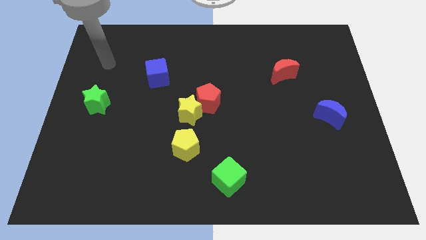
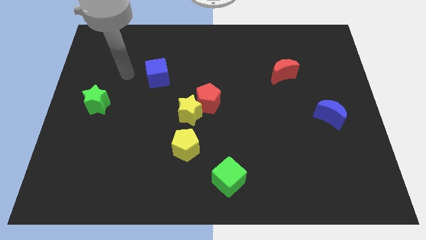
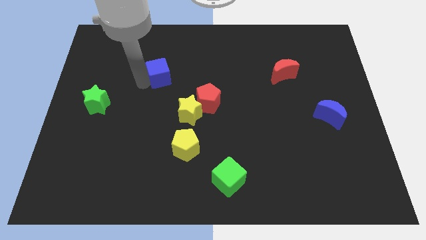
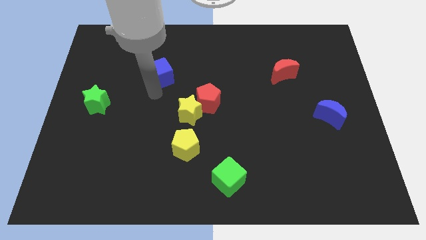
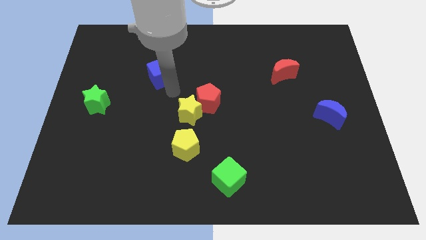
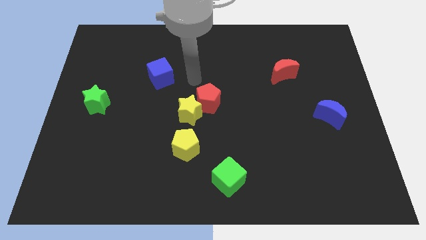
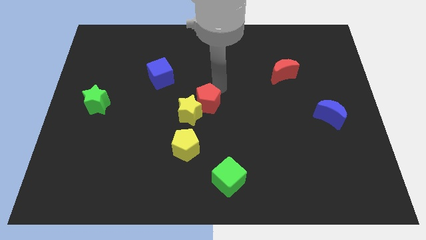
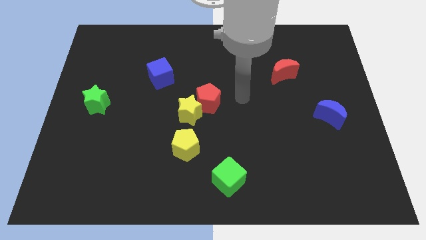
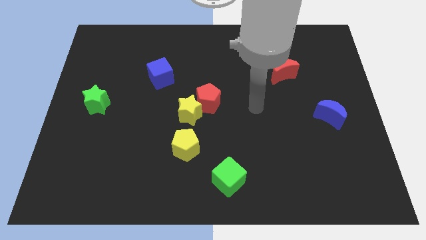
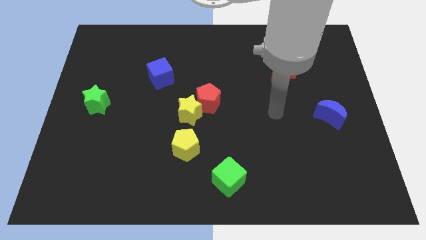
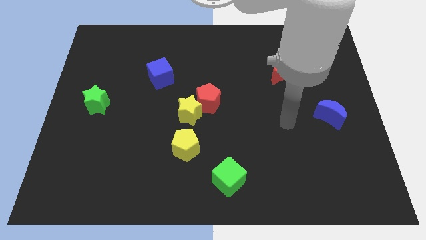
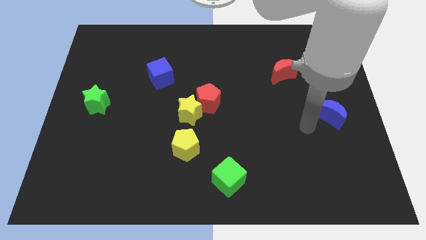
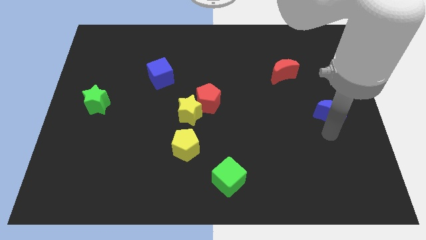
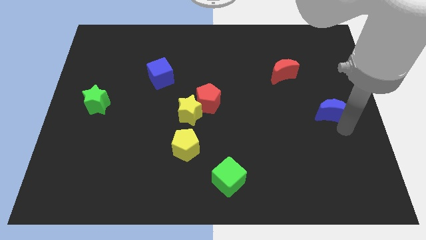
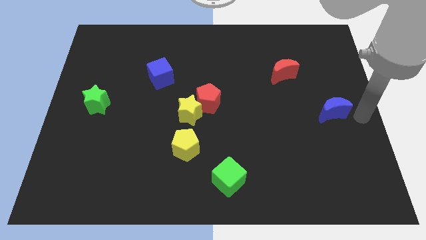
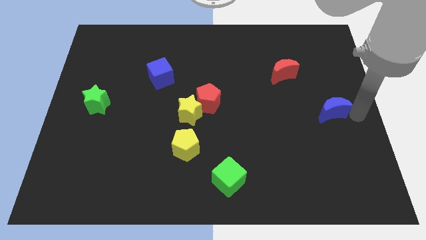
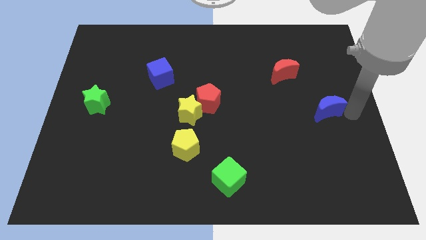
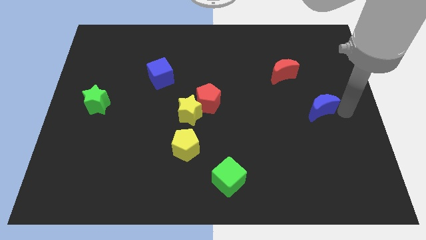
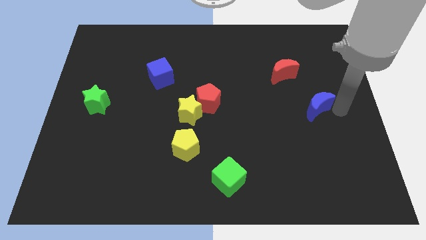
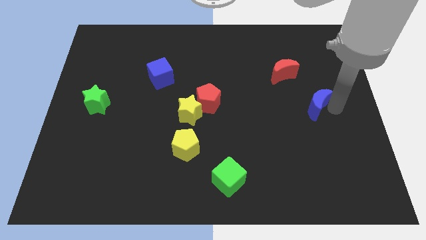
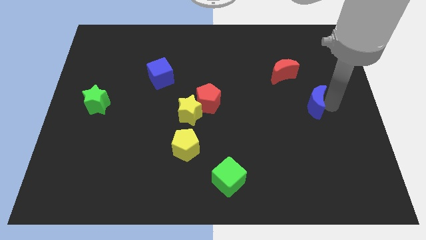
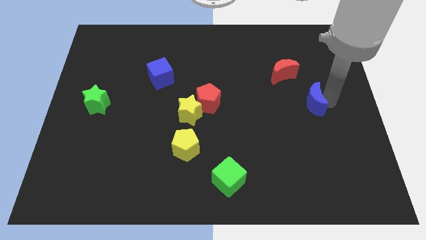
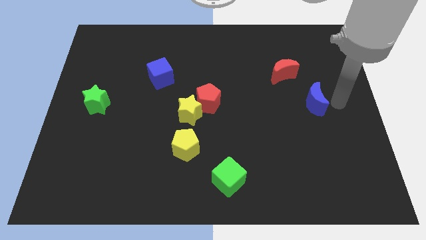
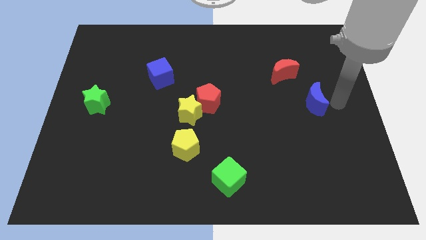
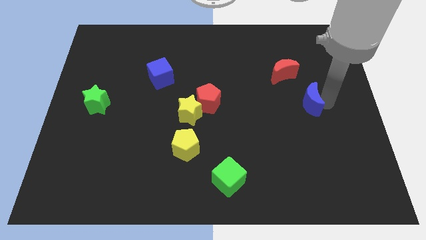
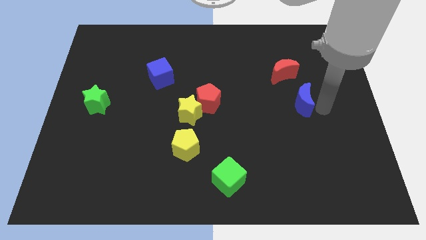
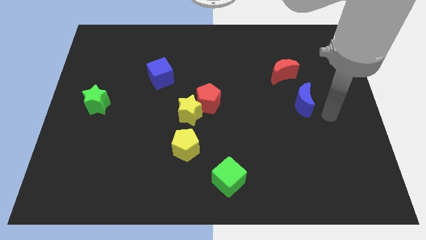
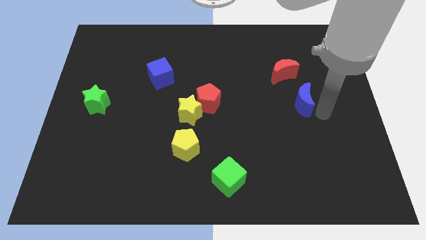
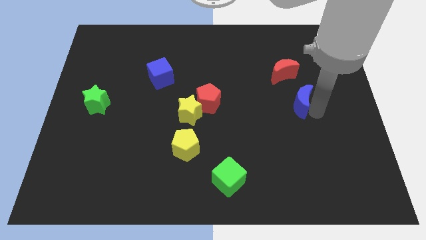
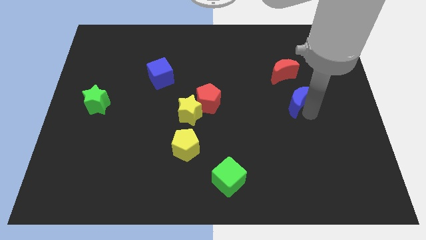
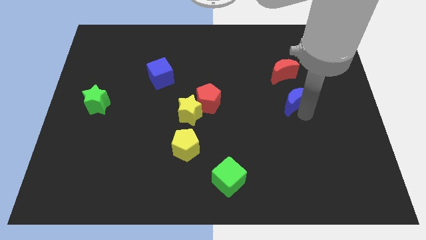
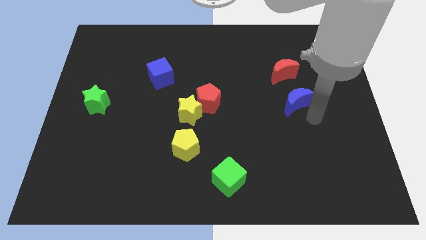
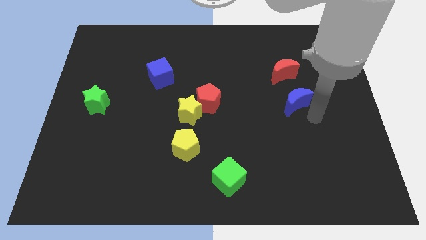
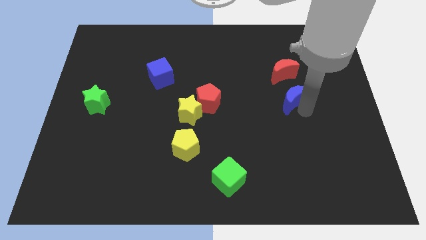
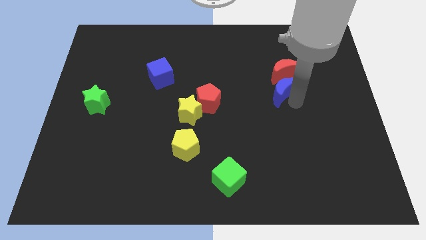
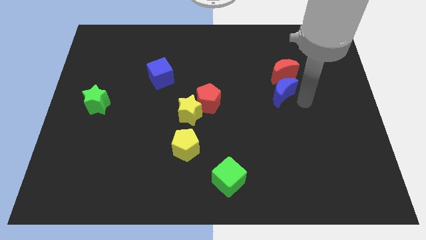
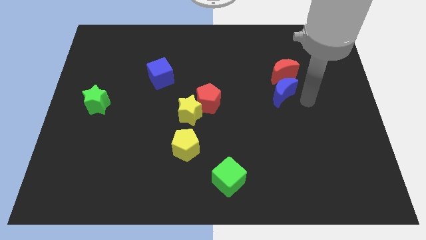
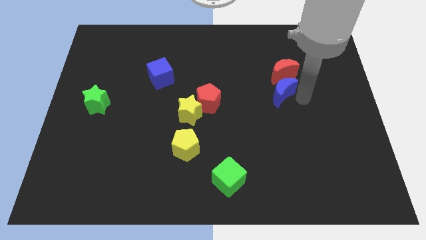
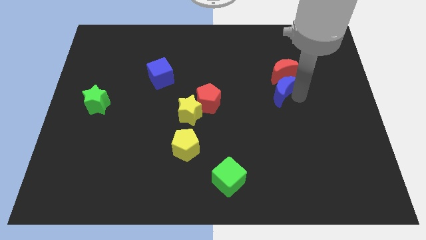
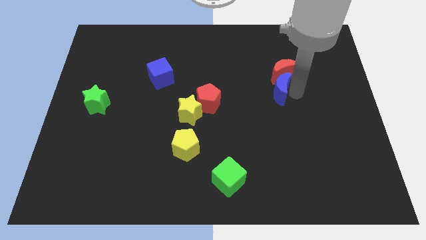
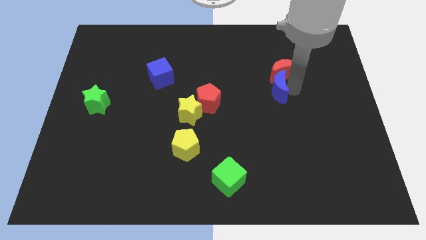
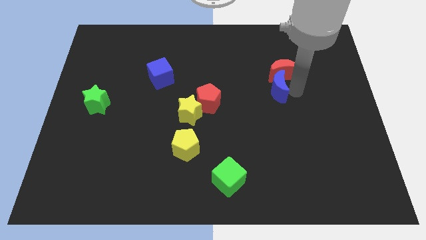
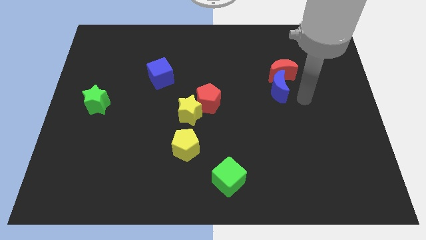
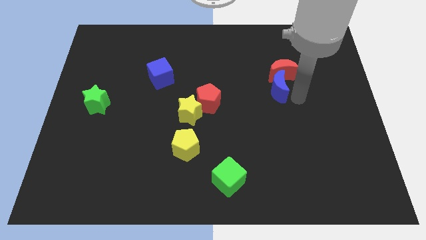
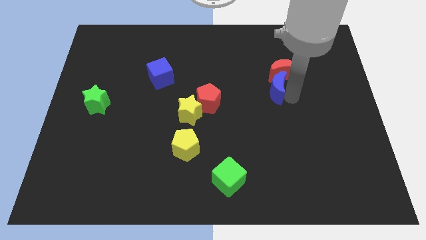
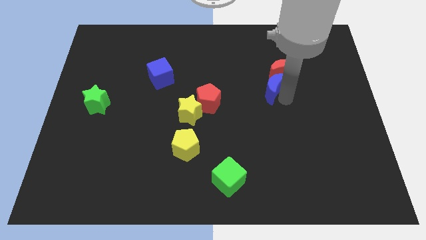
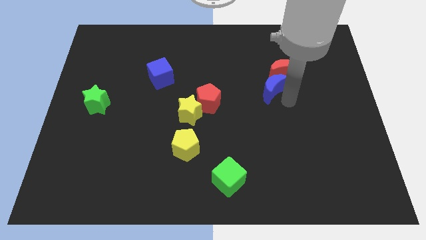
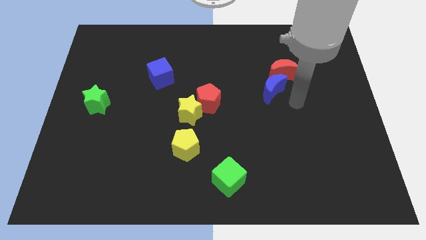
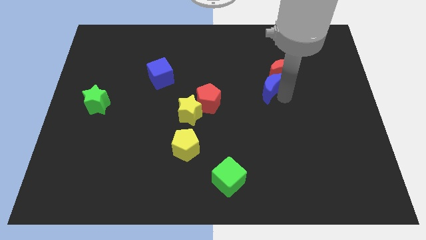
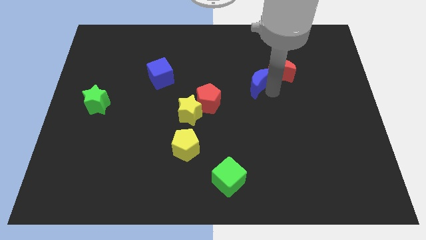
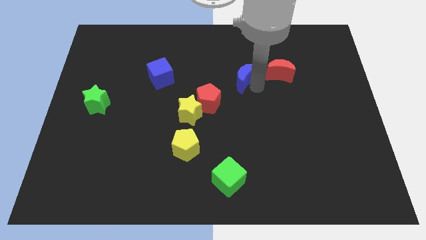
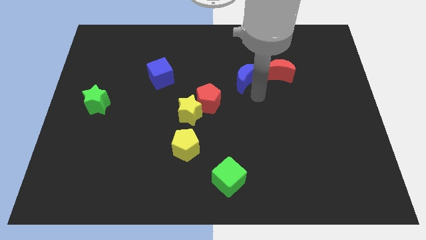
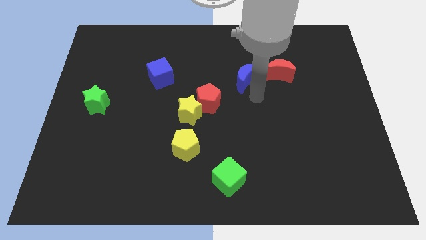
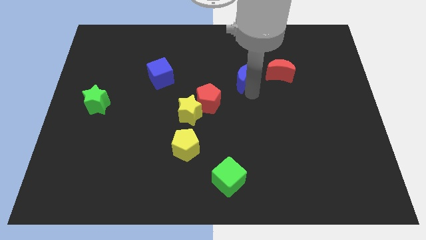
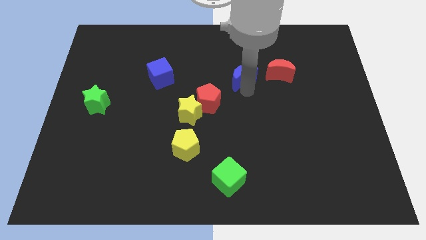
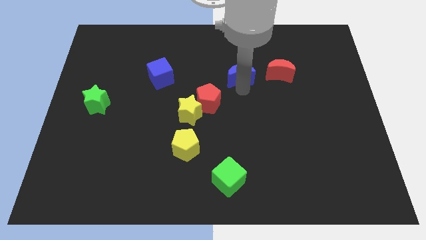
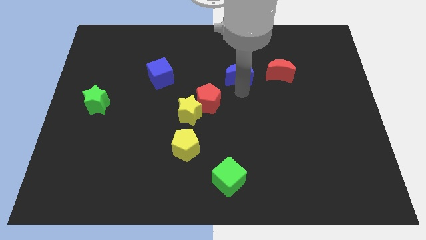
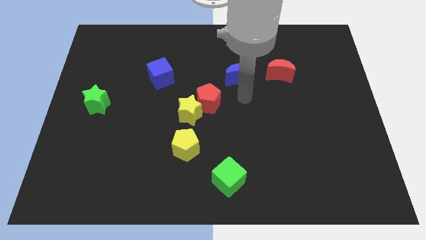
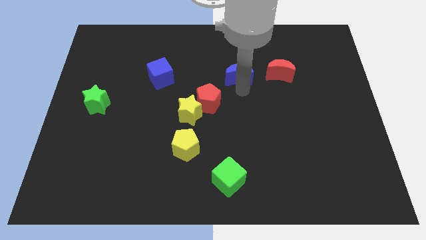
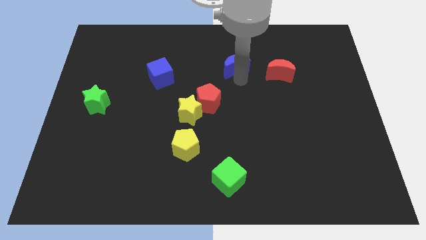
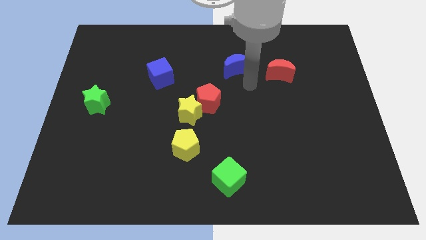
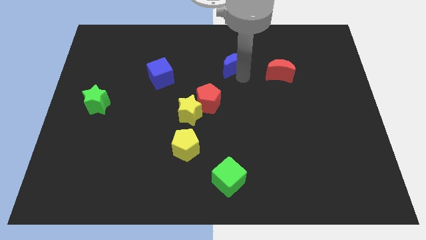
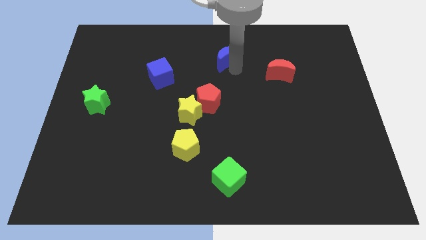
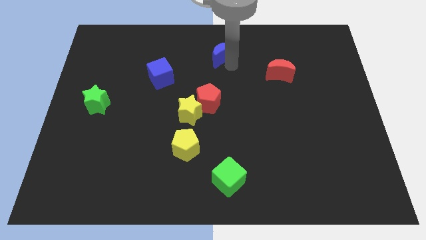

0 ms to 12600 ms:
move the blue moon to the top side

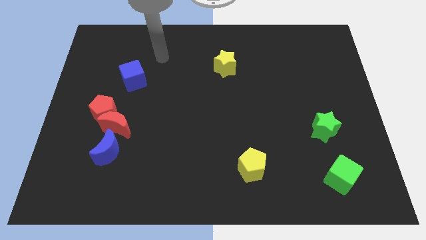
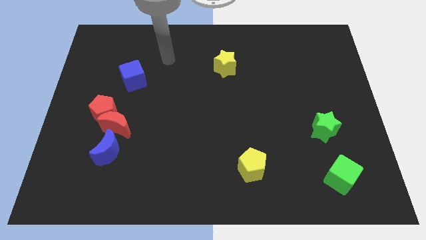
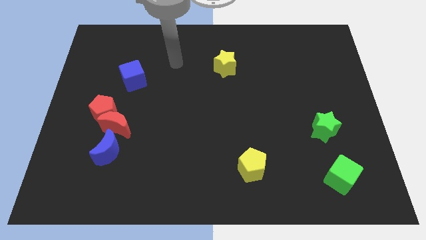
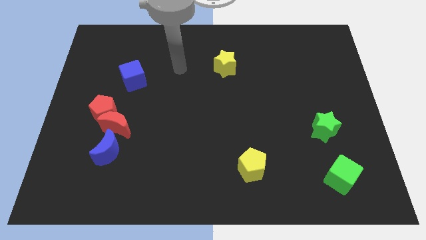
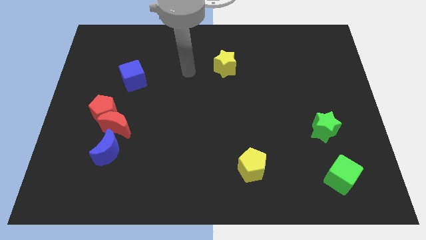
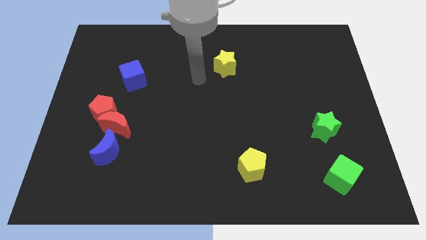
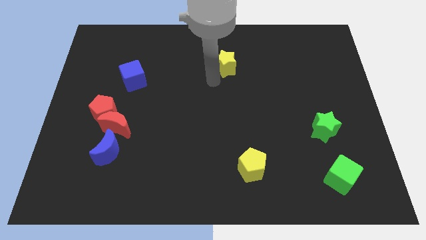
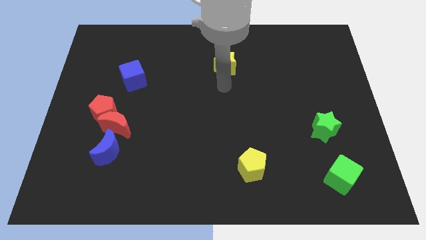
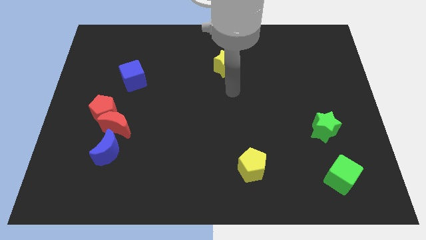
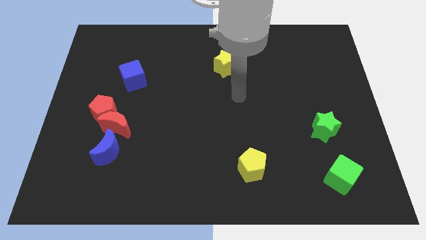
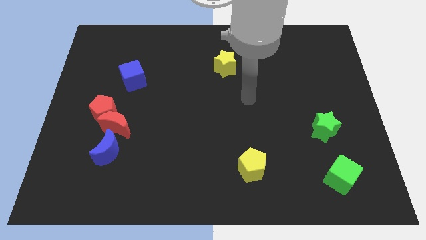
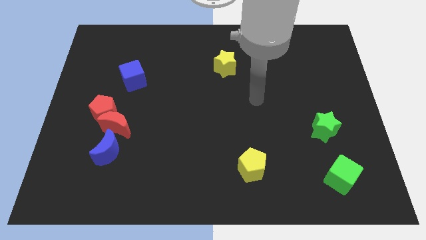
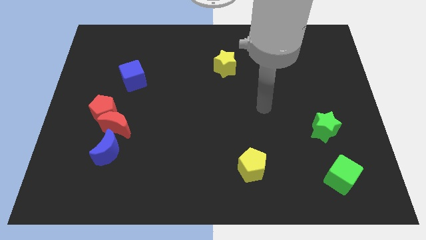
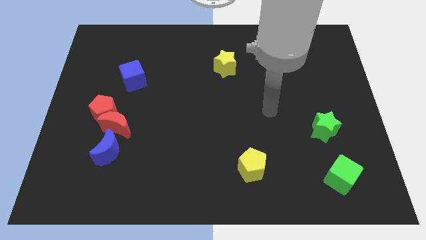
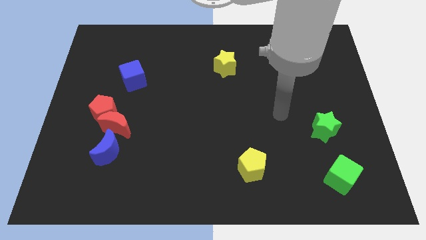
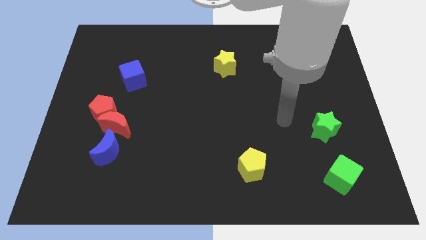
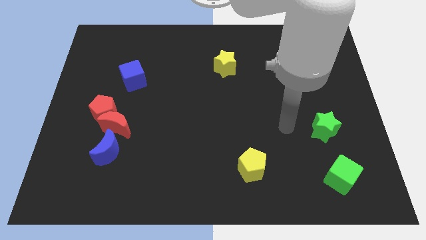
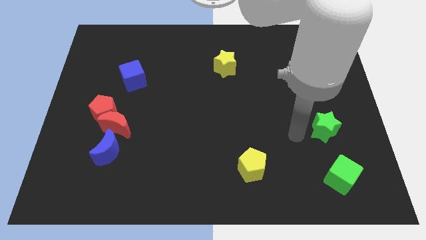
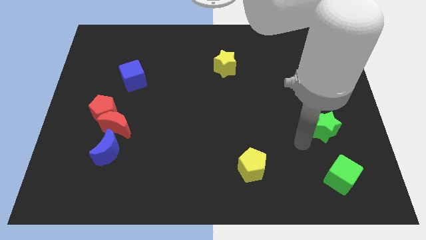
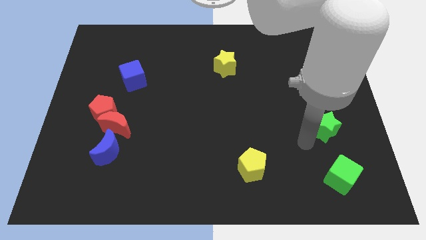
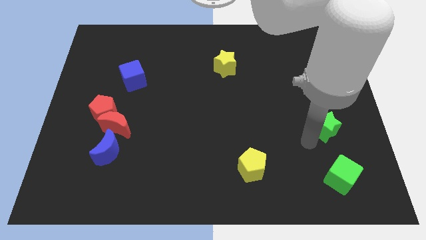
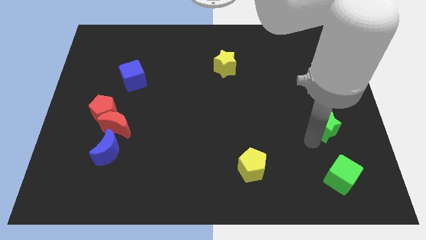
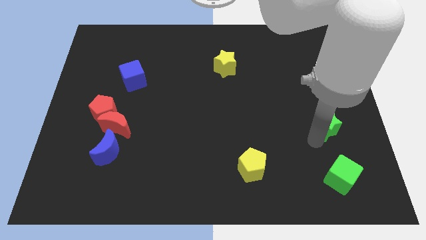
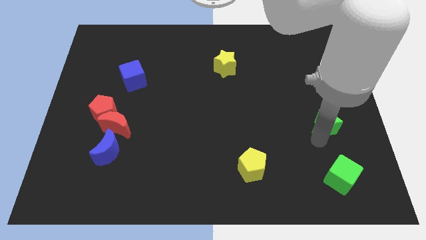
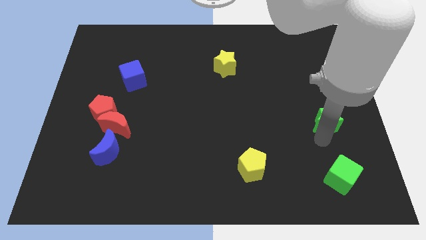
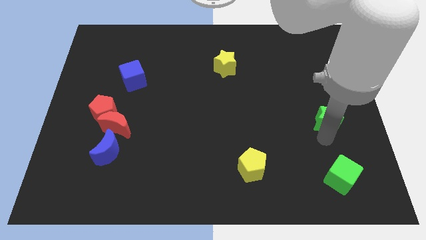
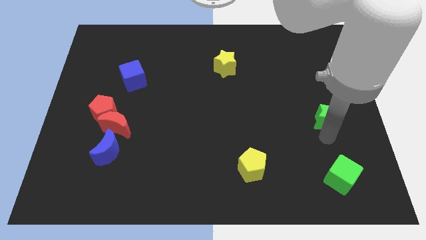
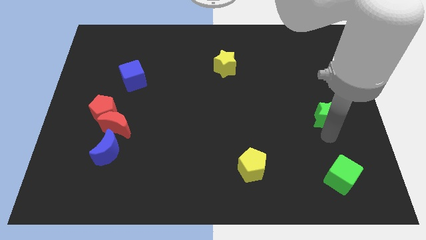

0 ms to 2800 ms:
push the green star to the center right
